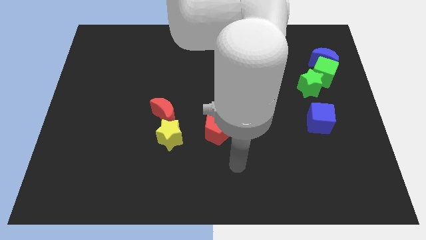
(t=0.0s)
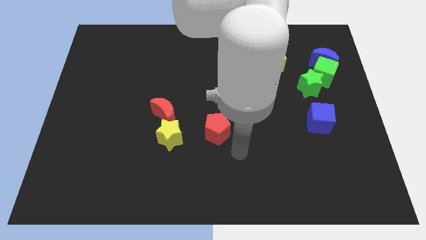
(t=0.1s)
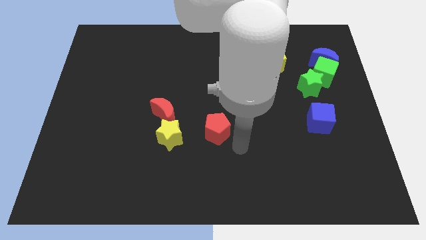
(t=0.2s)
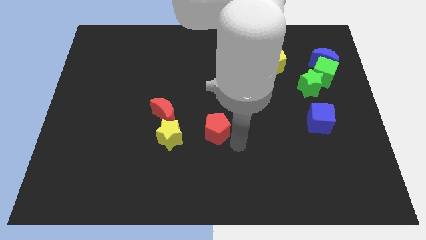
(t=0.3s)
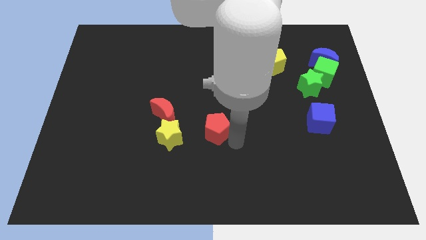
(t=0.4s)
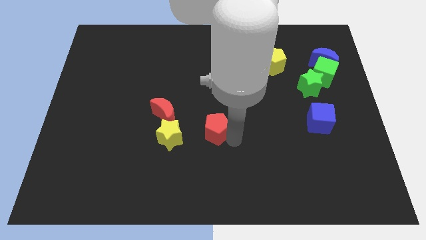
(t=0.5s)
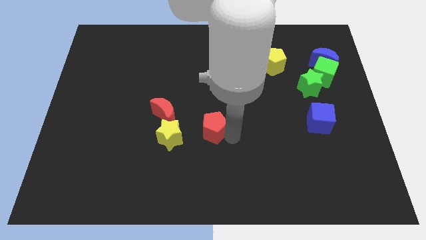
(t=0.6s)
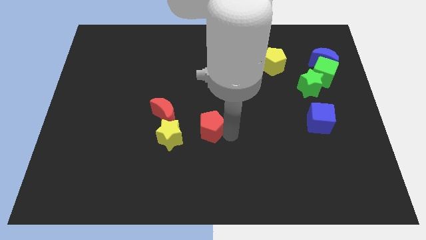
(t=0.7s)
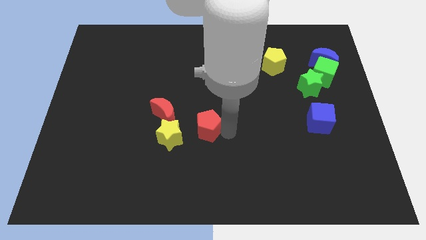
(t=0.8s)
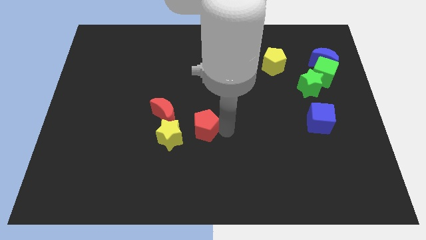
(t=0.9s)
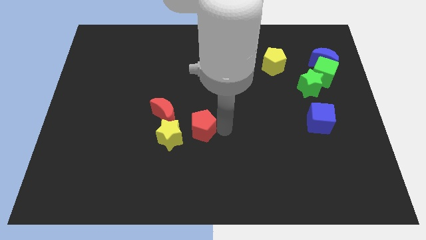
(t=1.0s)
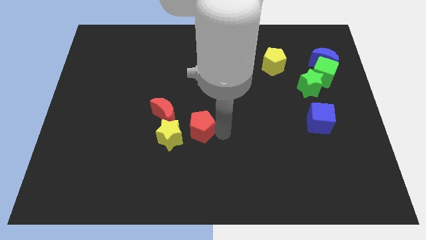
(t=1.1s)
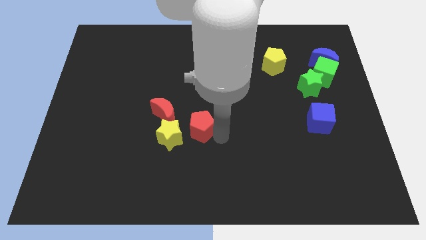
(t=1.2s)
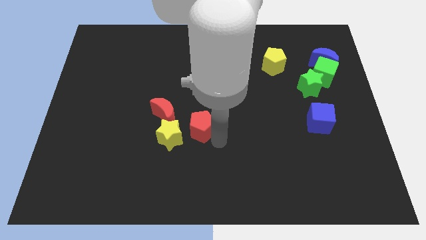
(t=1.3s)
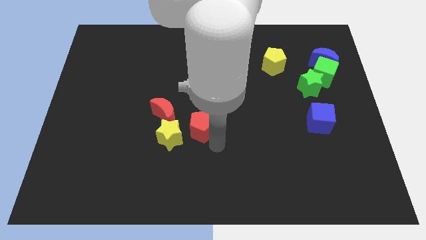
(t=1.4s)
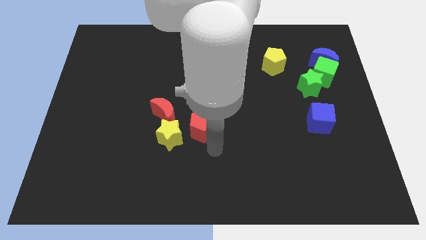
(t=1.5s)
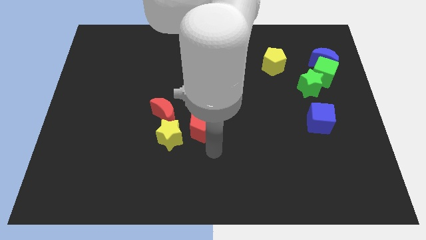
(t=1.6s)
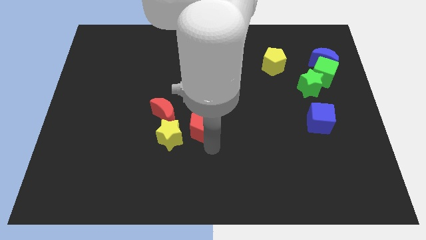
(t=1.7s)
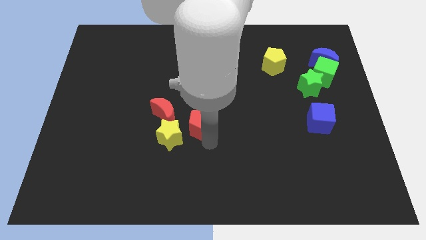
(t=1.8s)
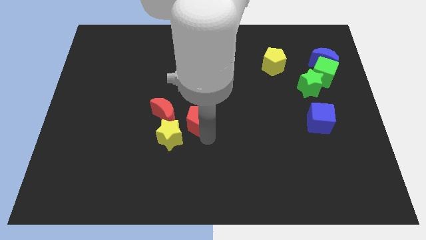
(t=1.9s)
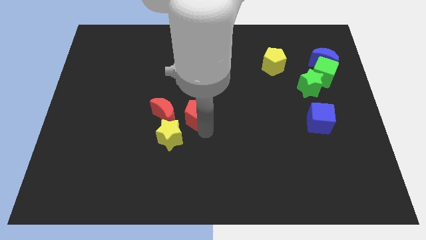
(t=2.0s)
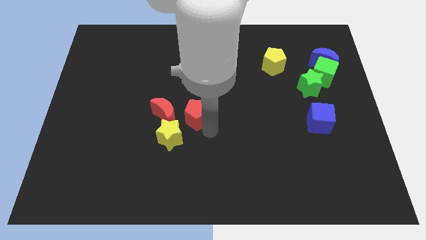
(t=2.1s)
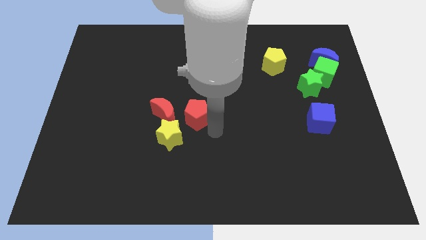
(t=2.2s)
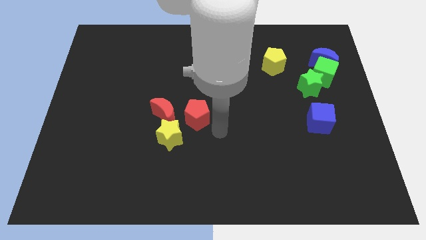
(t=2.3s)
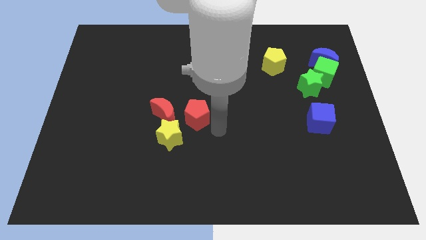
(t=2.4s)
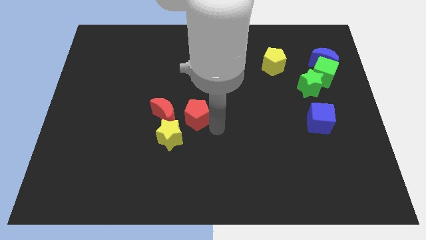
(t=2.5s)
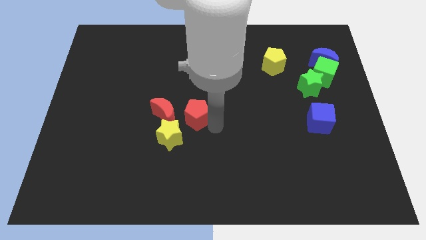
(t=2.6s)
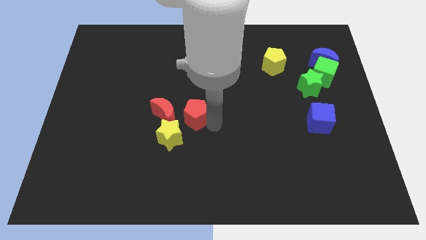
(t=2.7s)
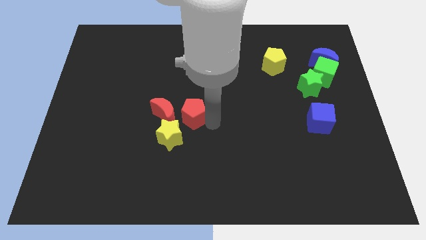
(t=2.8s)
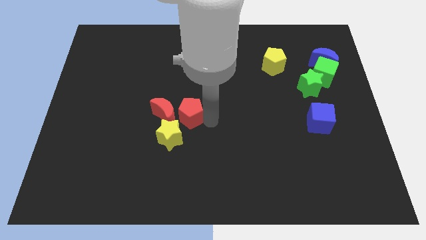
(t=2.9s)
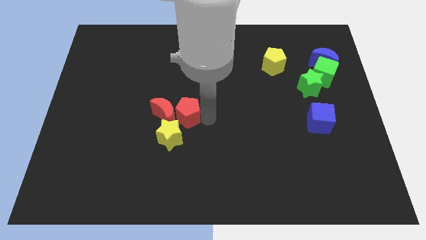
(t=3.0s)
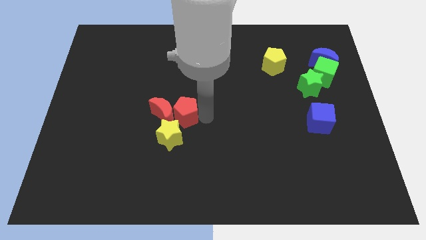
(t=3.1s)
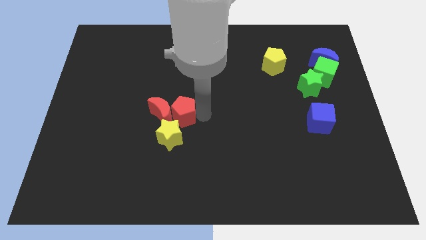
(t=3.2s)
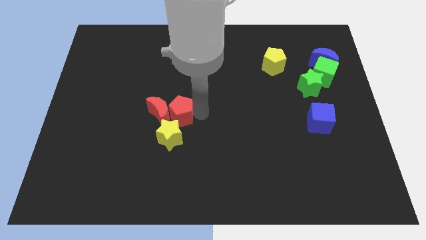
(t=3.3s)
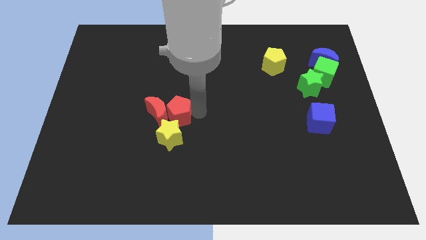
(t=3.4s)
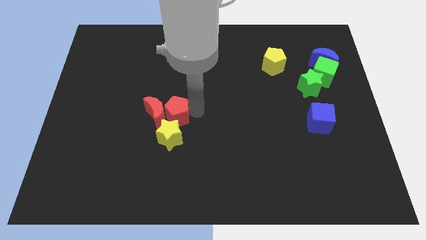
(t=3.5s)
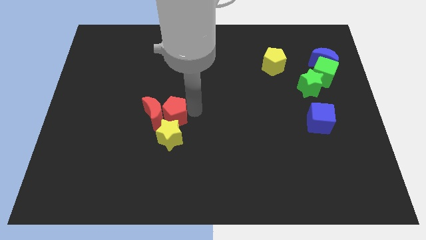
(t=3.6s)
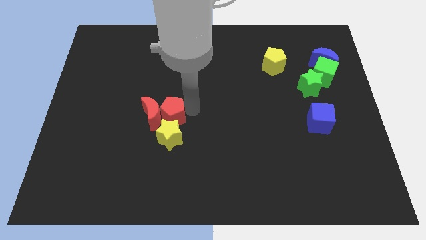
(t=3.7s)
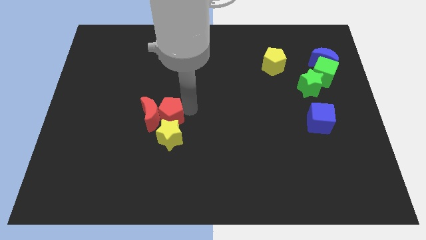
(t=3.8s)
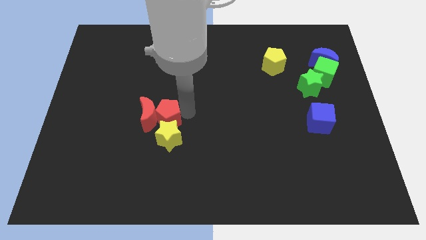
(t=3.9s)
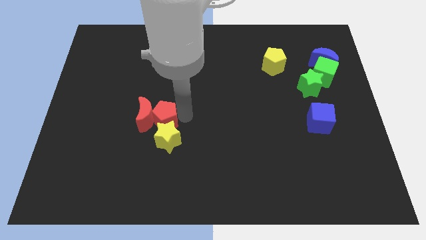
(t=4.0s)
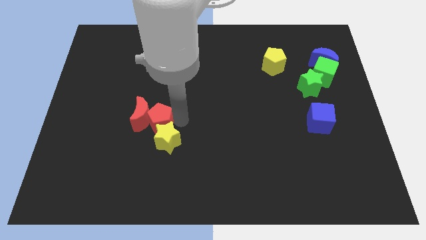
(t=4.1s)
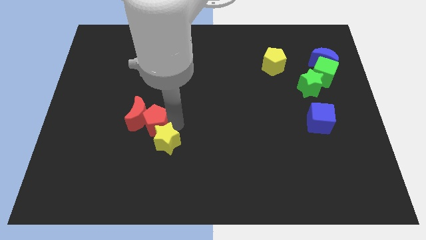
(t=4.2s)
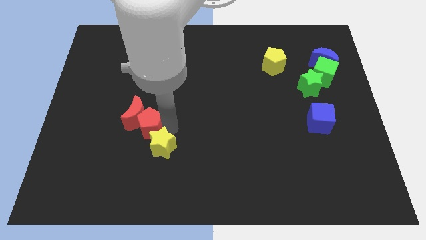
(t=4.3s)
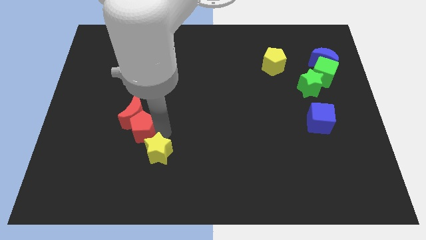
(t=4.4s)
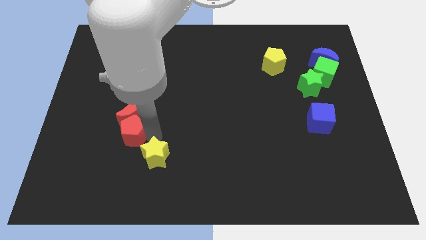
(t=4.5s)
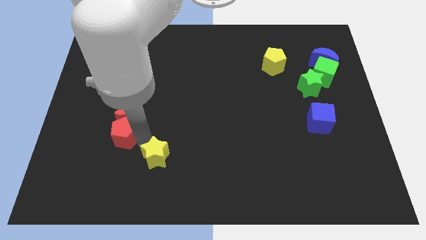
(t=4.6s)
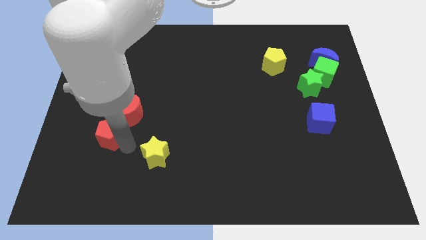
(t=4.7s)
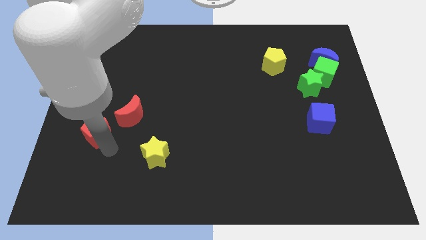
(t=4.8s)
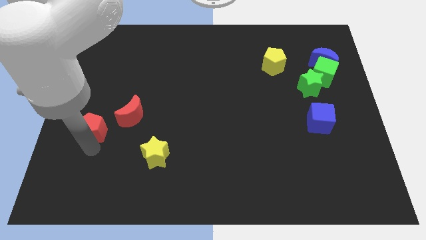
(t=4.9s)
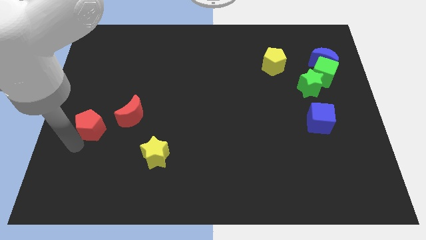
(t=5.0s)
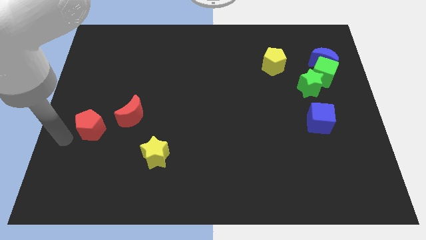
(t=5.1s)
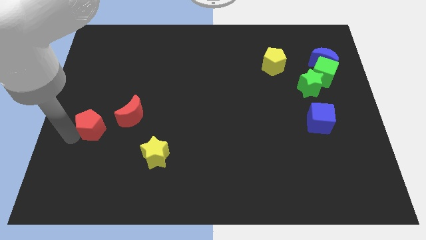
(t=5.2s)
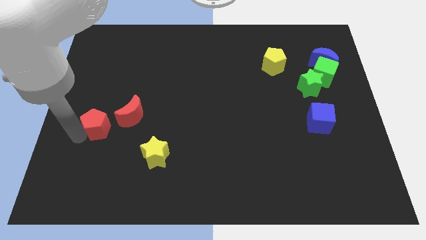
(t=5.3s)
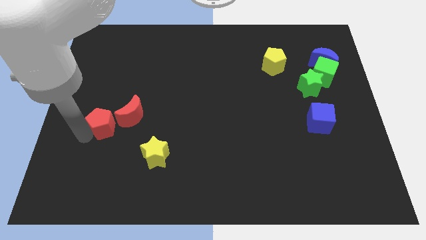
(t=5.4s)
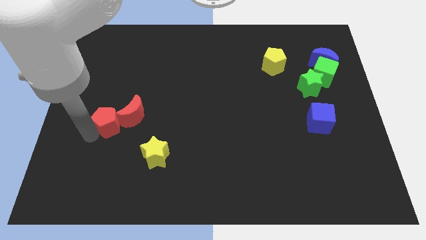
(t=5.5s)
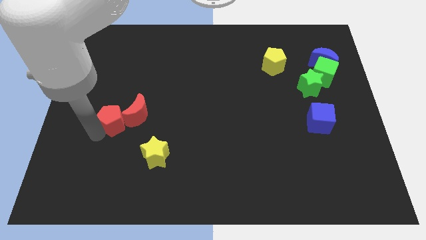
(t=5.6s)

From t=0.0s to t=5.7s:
push the red pentagon to the left of the red moon

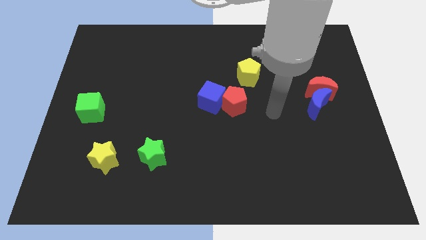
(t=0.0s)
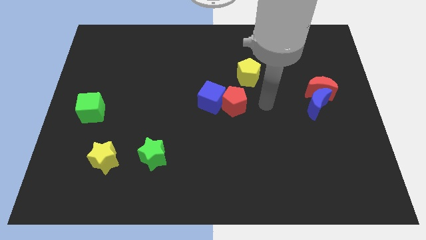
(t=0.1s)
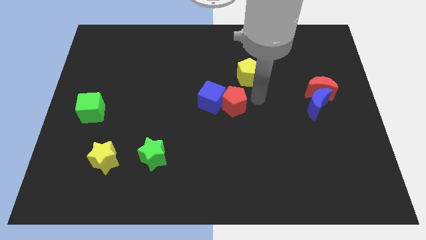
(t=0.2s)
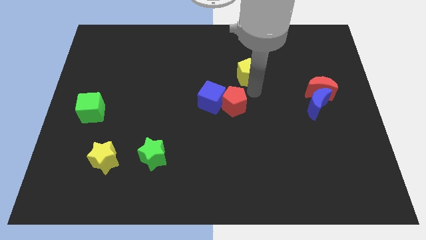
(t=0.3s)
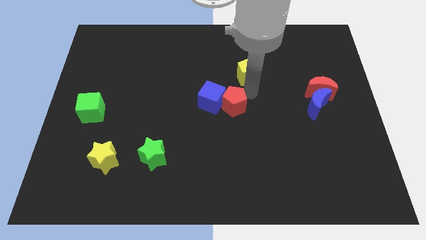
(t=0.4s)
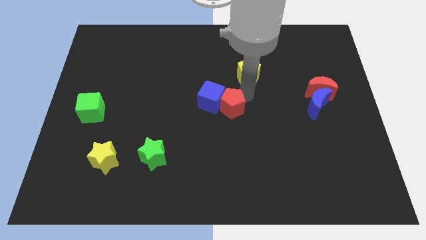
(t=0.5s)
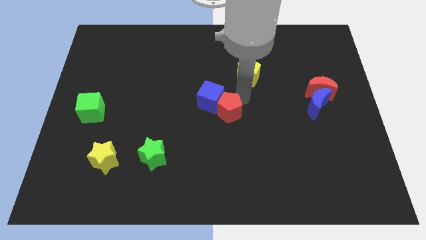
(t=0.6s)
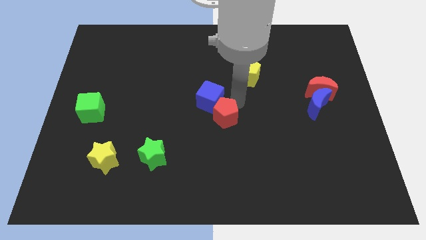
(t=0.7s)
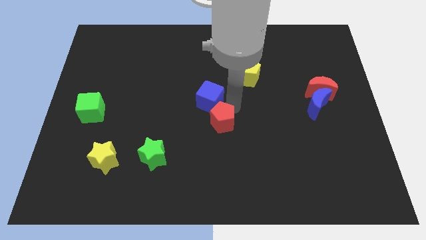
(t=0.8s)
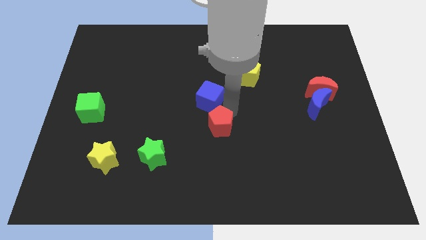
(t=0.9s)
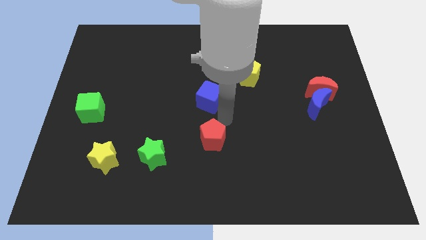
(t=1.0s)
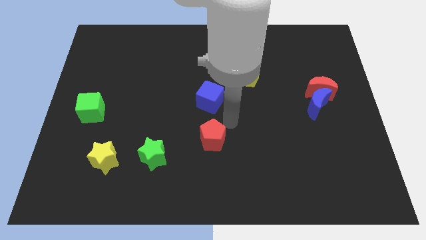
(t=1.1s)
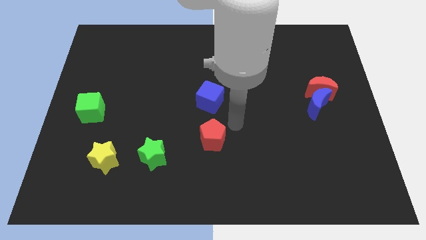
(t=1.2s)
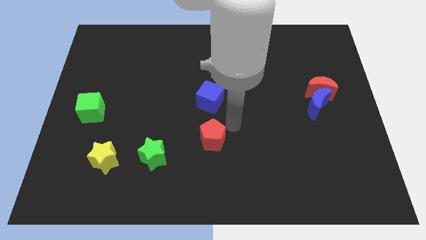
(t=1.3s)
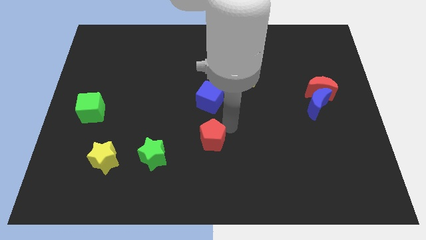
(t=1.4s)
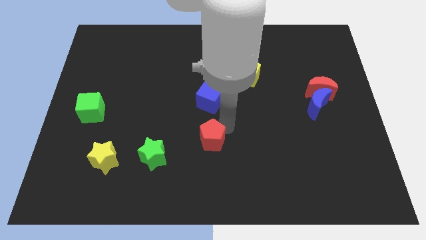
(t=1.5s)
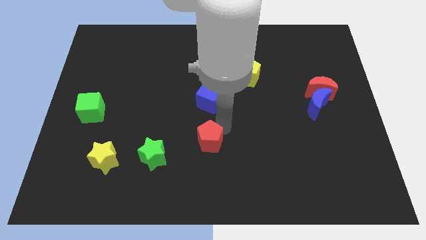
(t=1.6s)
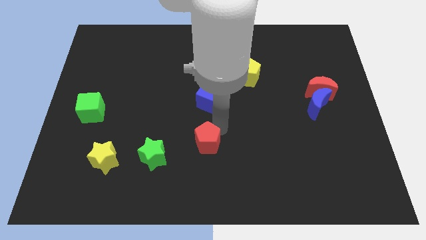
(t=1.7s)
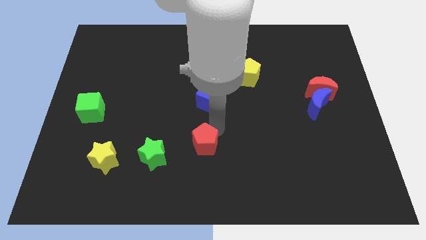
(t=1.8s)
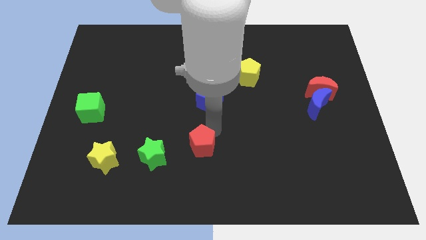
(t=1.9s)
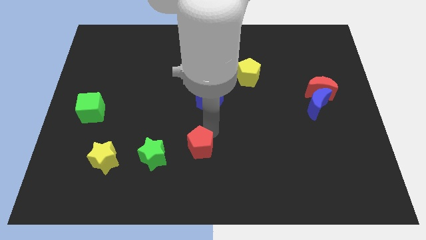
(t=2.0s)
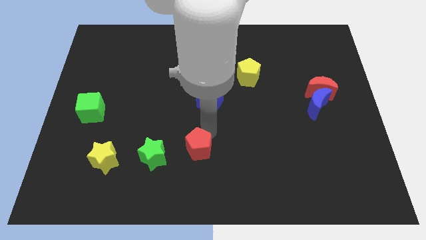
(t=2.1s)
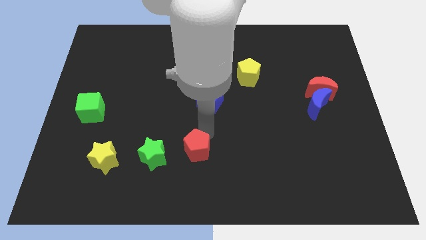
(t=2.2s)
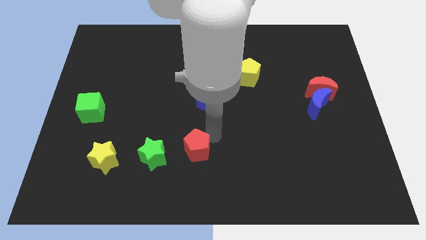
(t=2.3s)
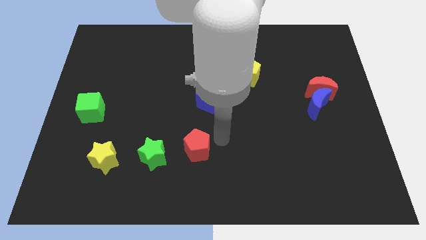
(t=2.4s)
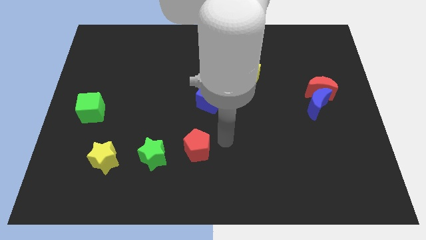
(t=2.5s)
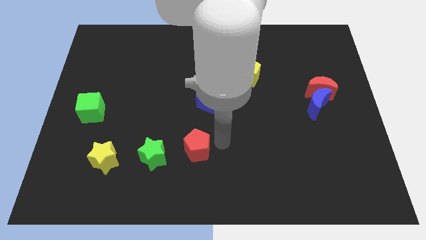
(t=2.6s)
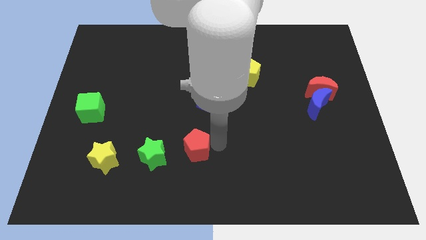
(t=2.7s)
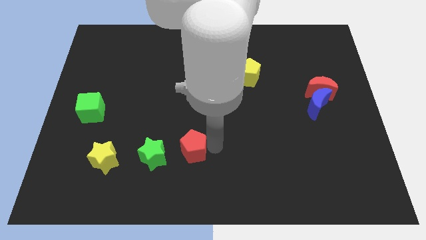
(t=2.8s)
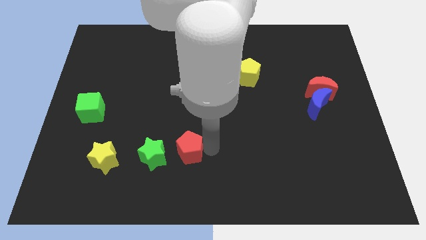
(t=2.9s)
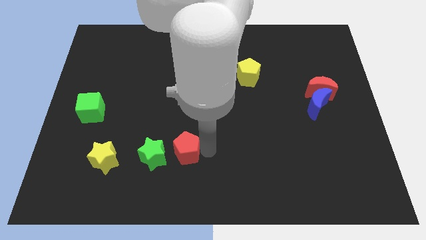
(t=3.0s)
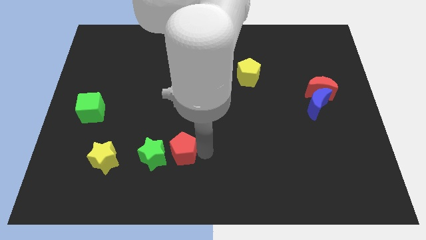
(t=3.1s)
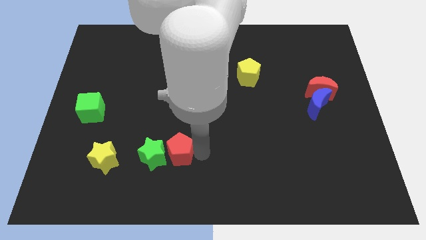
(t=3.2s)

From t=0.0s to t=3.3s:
move the red pentagon right of the yellow star
